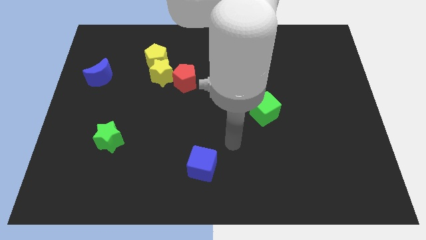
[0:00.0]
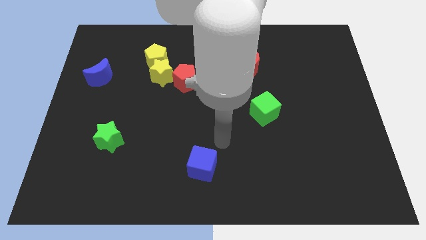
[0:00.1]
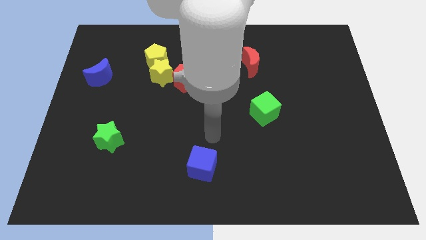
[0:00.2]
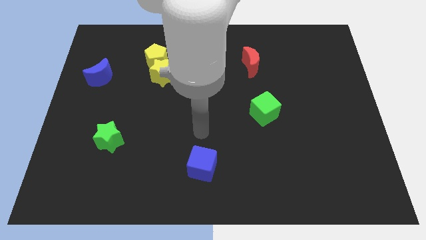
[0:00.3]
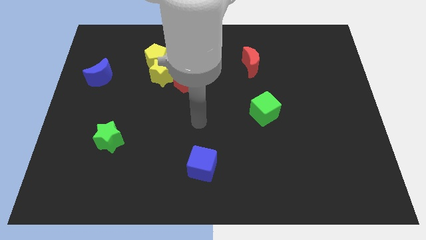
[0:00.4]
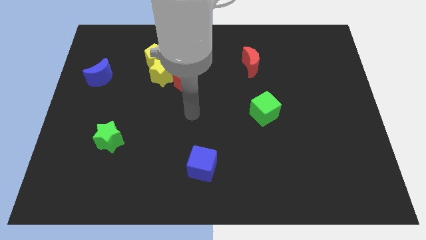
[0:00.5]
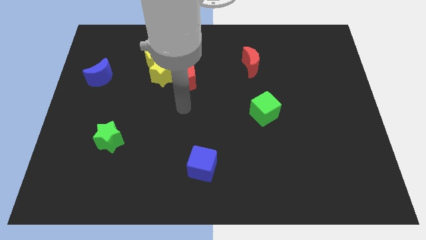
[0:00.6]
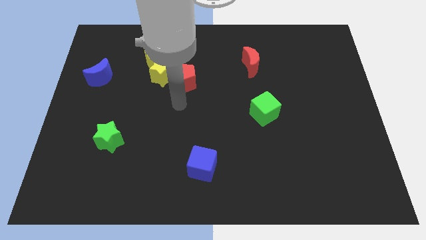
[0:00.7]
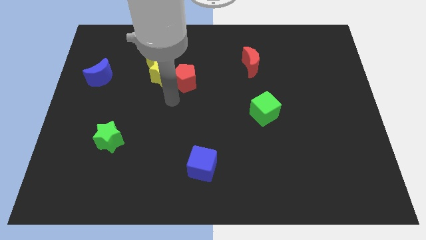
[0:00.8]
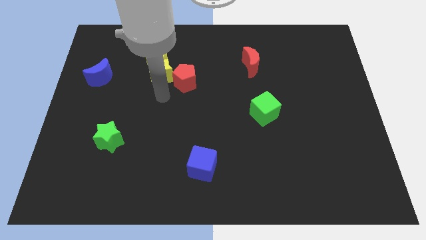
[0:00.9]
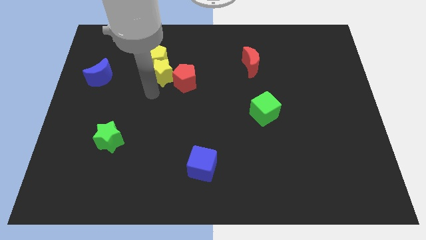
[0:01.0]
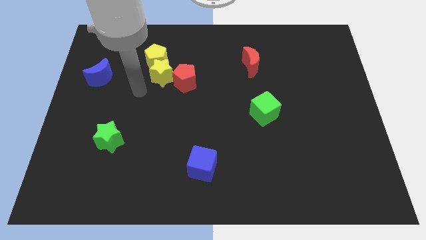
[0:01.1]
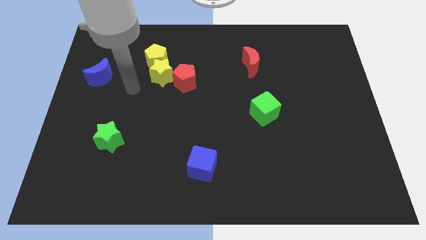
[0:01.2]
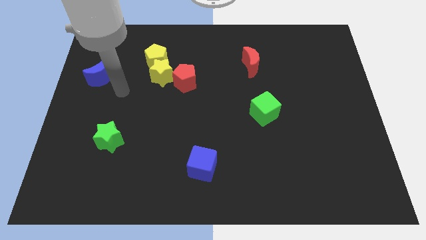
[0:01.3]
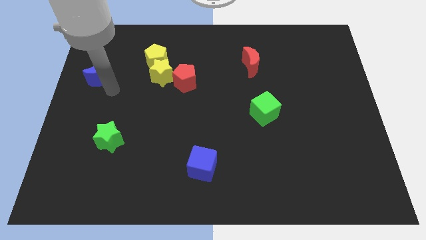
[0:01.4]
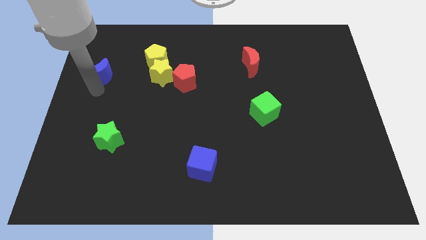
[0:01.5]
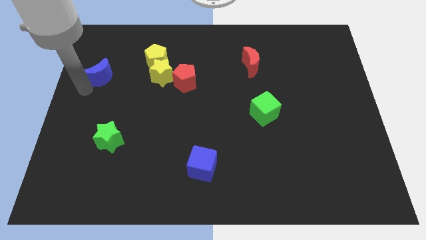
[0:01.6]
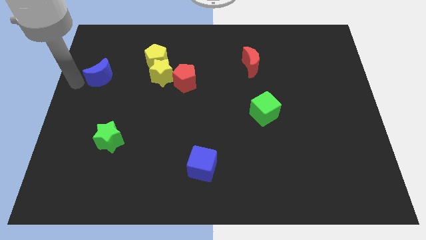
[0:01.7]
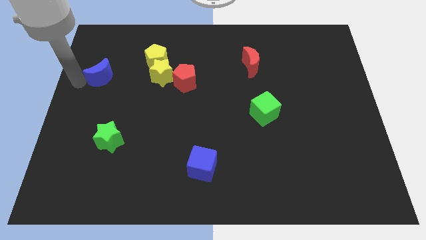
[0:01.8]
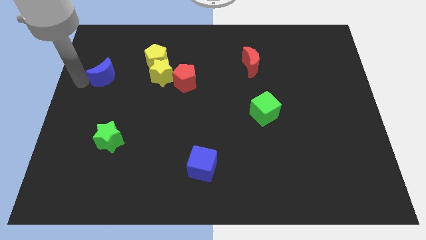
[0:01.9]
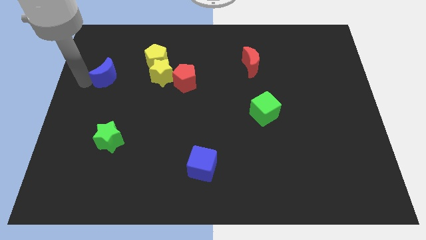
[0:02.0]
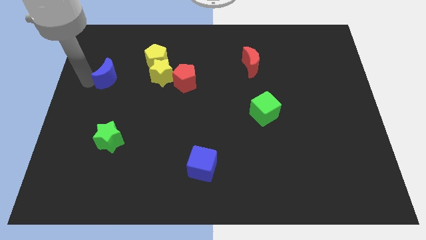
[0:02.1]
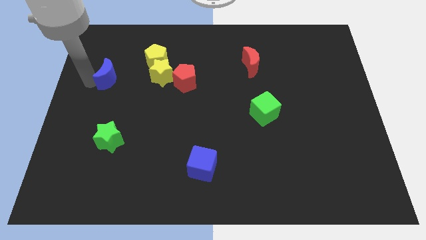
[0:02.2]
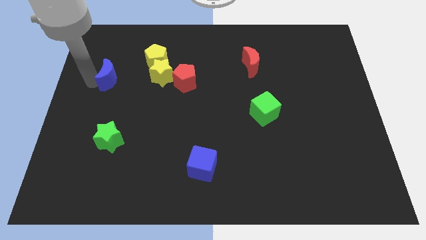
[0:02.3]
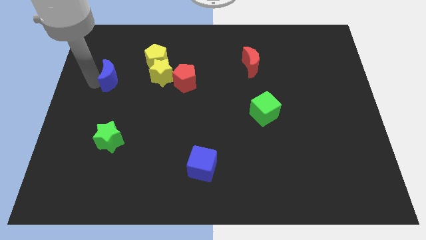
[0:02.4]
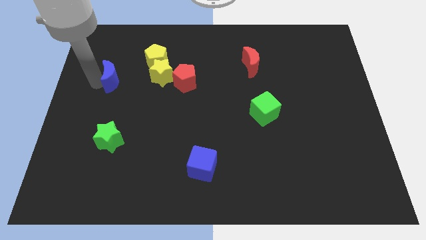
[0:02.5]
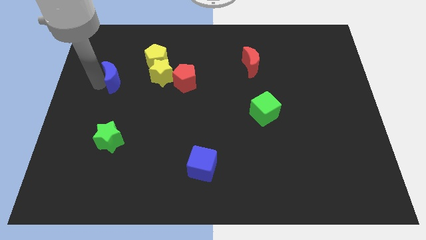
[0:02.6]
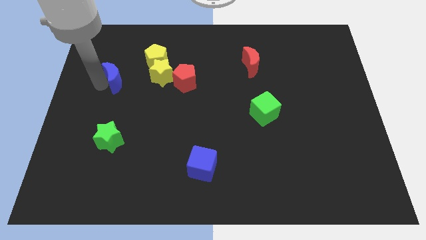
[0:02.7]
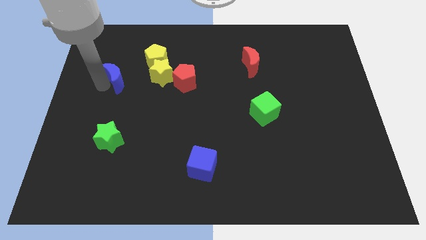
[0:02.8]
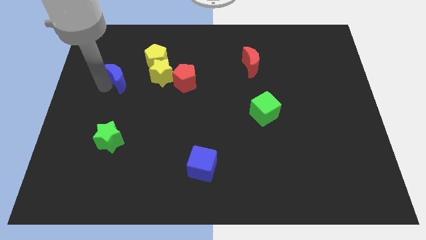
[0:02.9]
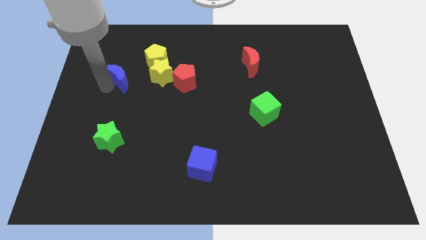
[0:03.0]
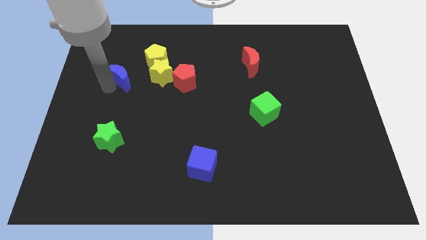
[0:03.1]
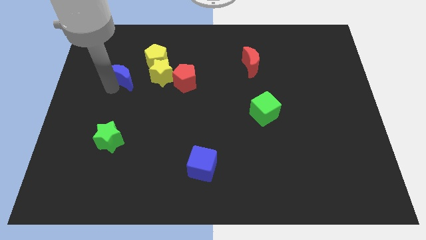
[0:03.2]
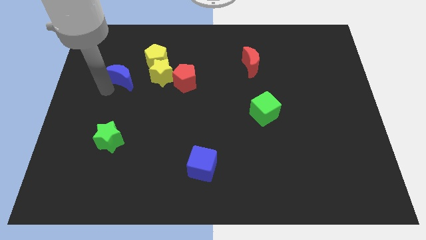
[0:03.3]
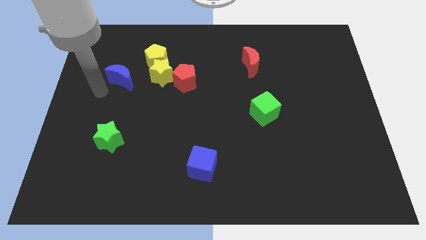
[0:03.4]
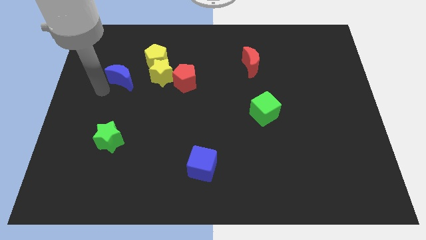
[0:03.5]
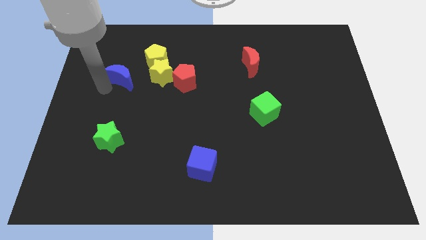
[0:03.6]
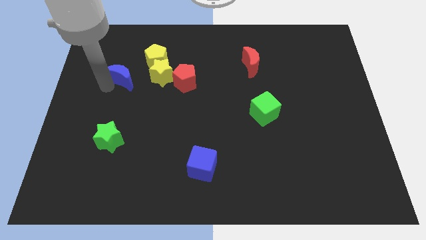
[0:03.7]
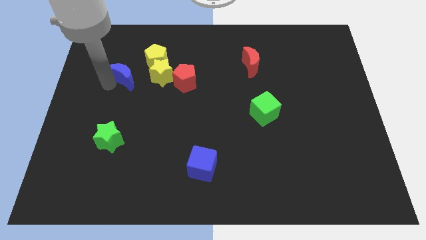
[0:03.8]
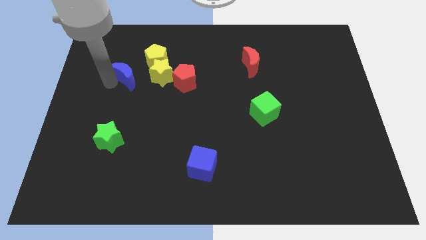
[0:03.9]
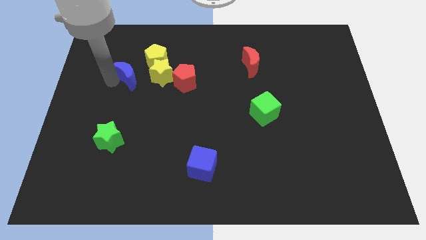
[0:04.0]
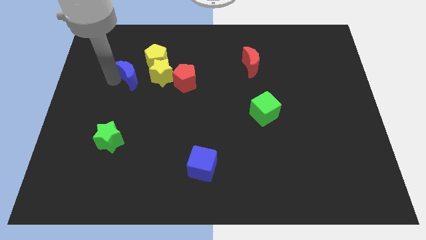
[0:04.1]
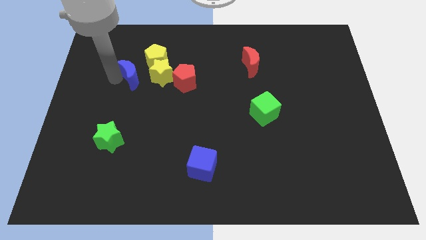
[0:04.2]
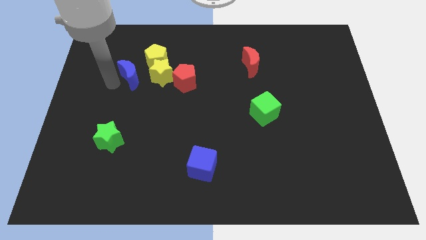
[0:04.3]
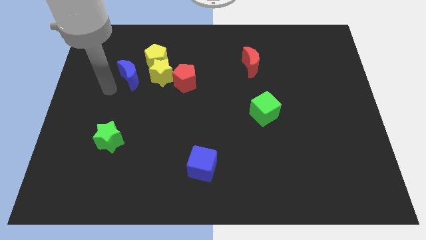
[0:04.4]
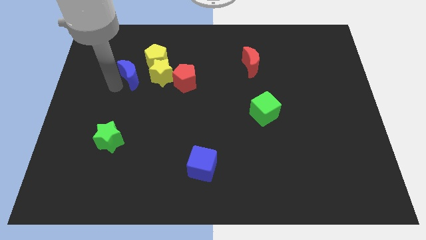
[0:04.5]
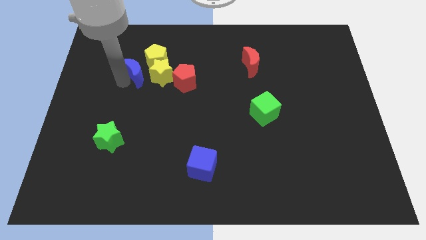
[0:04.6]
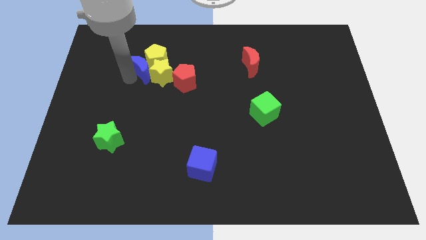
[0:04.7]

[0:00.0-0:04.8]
move the blue moon towards the yellow pentagon

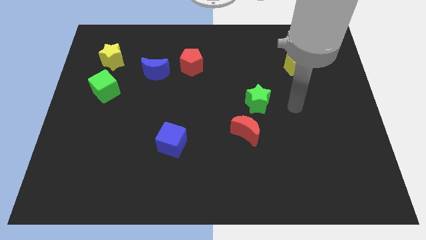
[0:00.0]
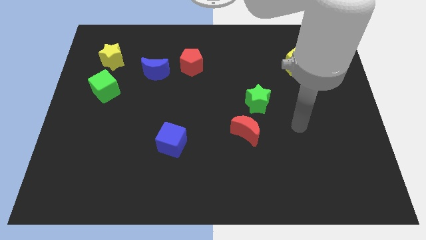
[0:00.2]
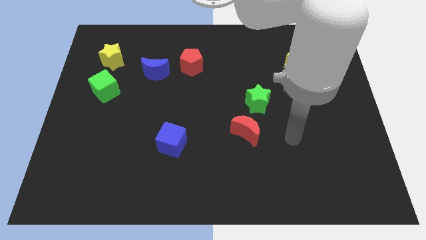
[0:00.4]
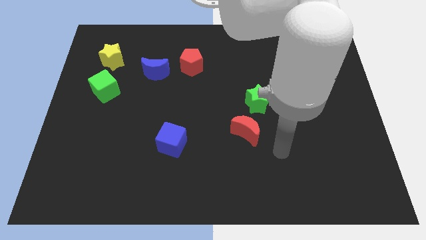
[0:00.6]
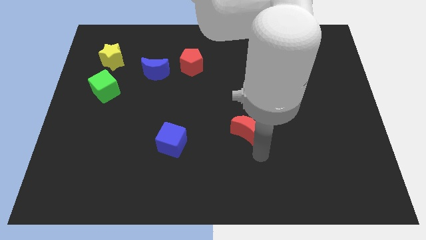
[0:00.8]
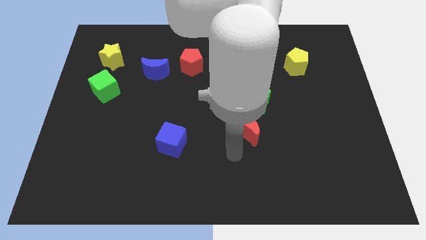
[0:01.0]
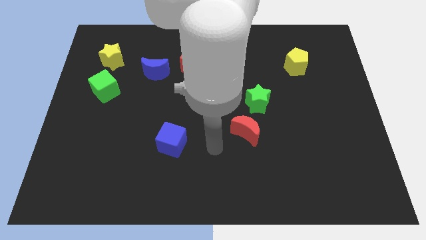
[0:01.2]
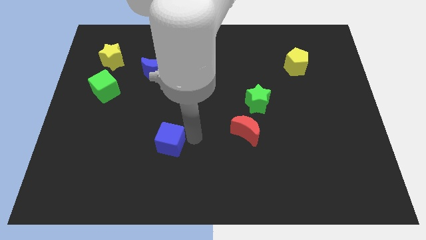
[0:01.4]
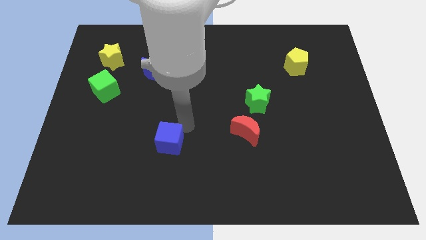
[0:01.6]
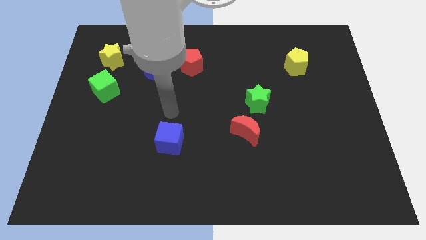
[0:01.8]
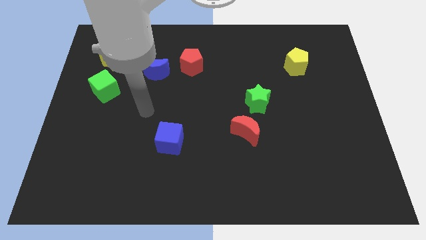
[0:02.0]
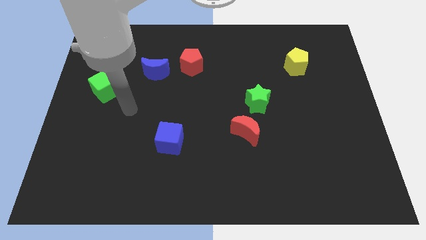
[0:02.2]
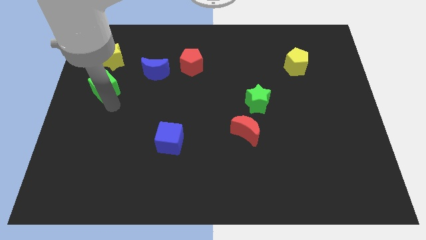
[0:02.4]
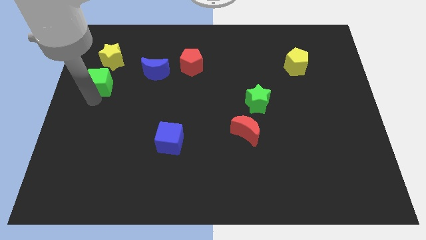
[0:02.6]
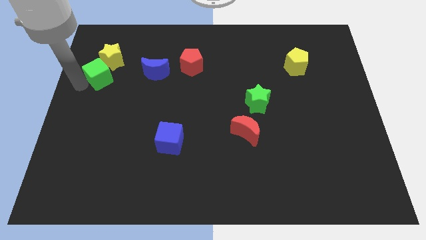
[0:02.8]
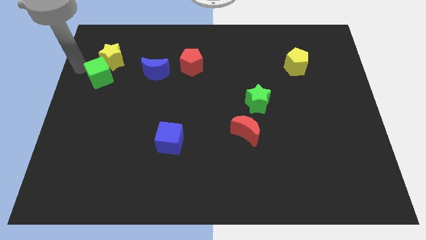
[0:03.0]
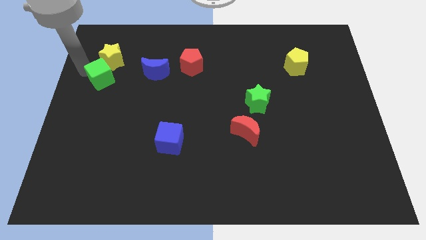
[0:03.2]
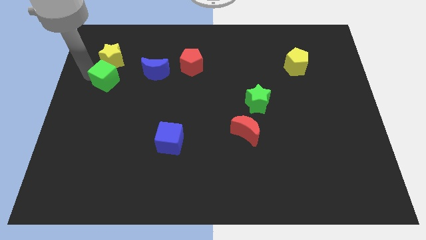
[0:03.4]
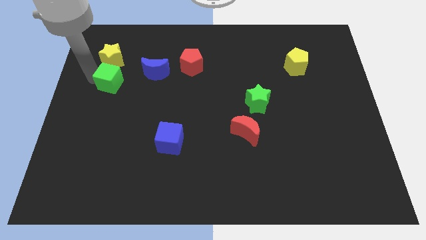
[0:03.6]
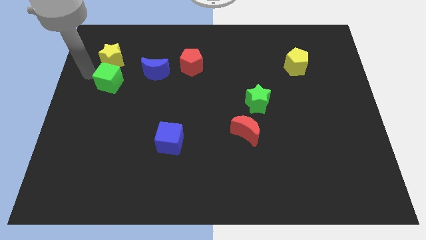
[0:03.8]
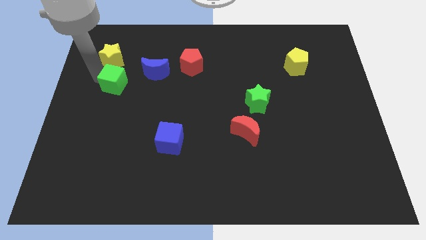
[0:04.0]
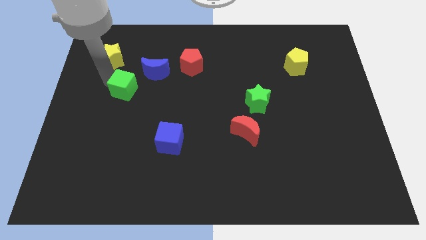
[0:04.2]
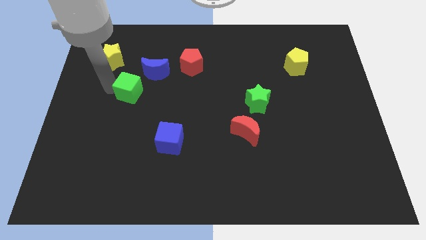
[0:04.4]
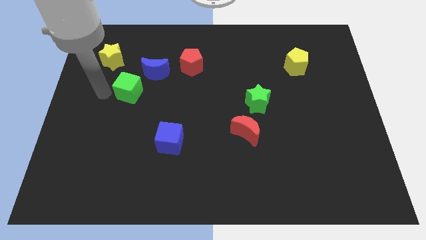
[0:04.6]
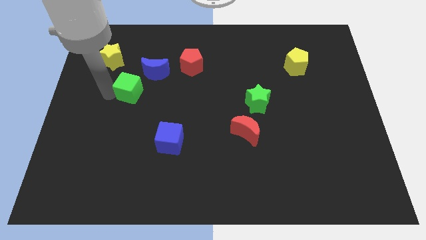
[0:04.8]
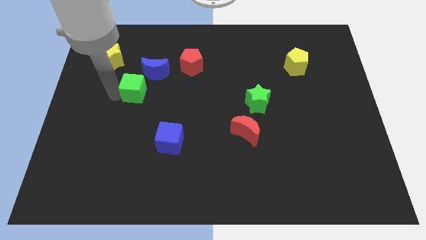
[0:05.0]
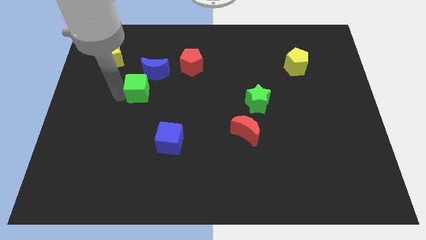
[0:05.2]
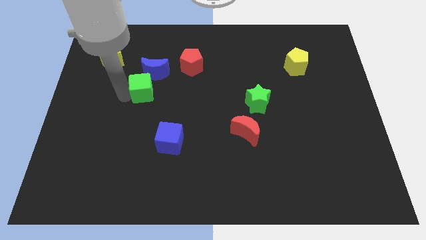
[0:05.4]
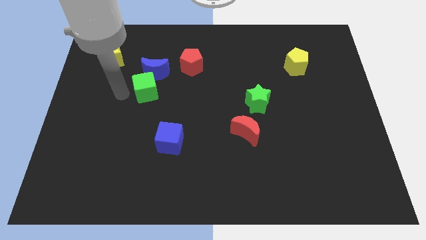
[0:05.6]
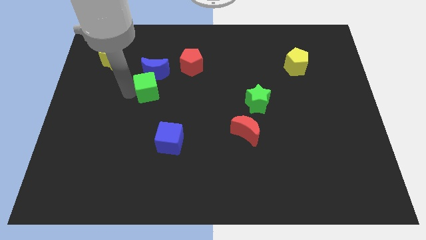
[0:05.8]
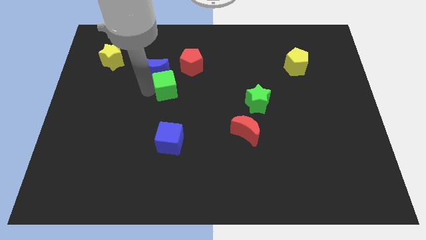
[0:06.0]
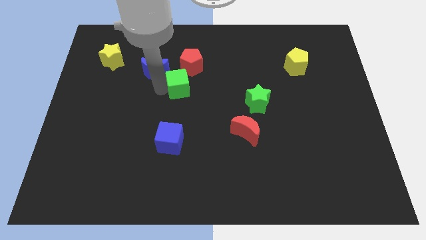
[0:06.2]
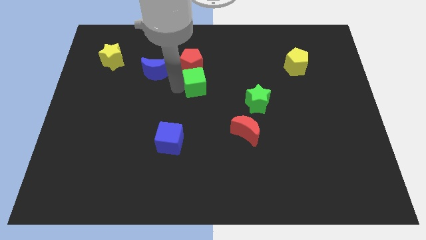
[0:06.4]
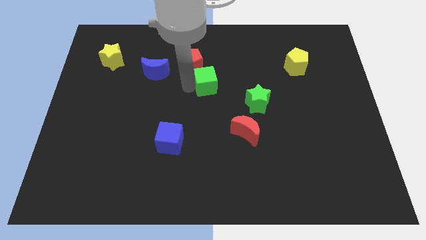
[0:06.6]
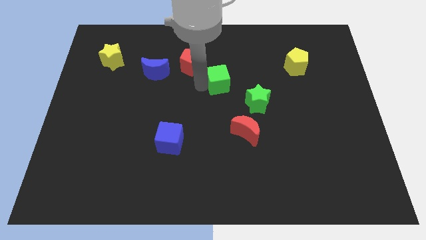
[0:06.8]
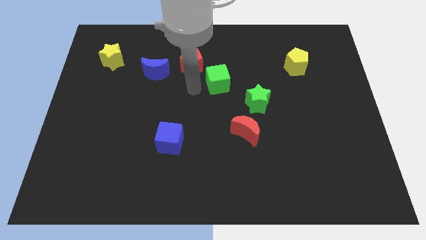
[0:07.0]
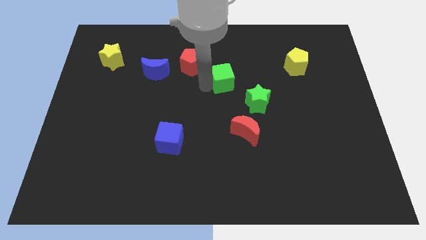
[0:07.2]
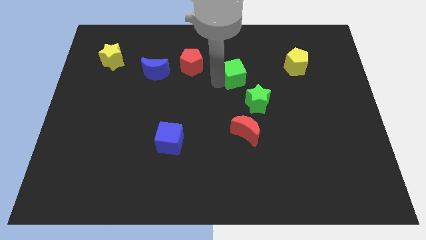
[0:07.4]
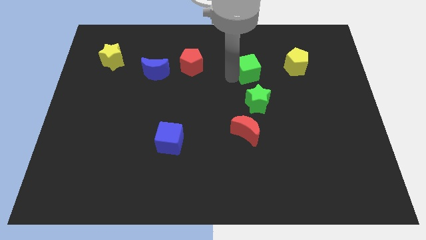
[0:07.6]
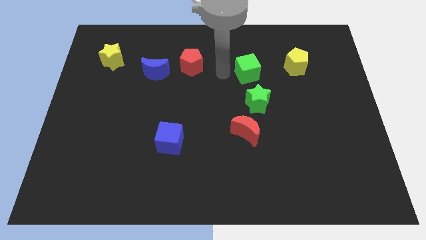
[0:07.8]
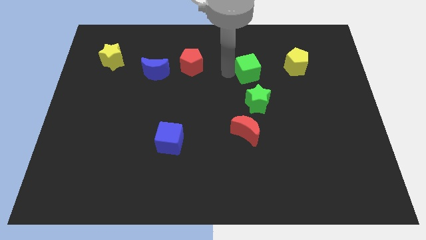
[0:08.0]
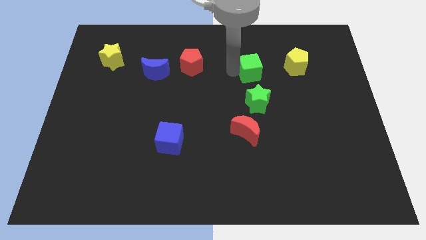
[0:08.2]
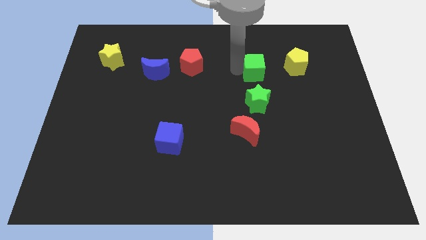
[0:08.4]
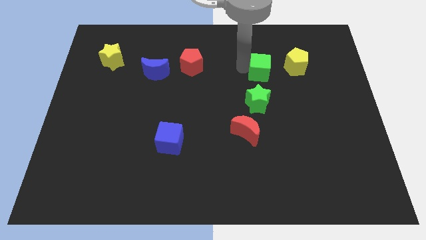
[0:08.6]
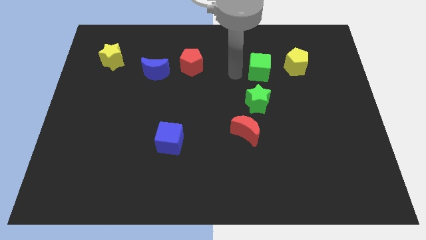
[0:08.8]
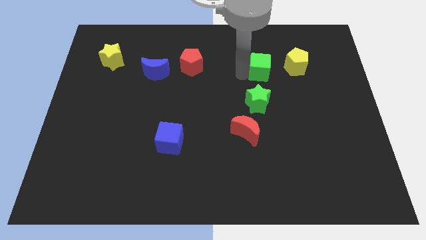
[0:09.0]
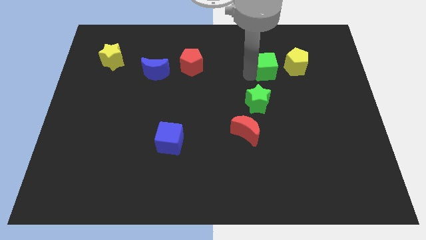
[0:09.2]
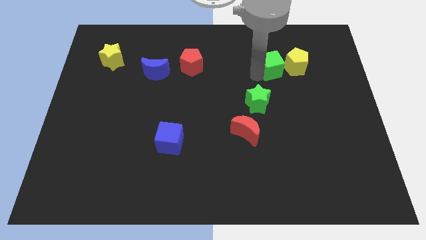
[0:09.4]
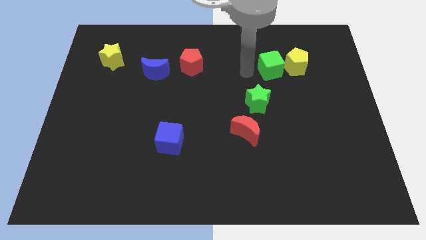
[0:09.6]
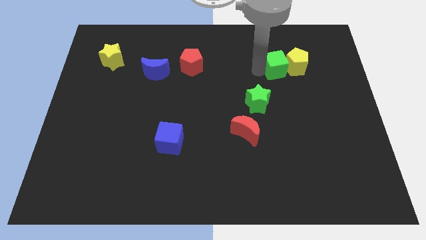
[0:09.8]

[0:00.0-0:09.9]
move the green cube next to the yellow pentagon
